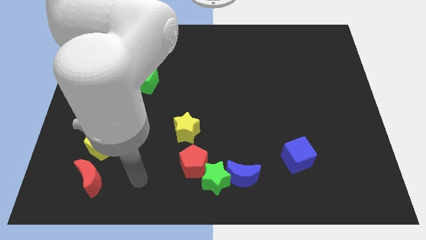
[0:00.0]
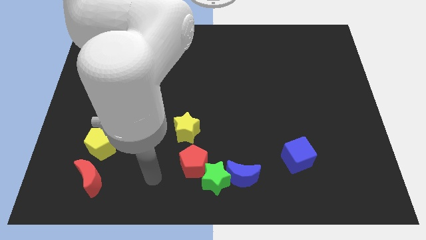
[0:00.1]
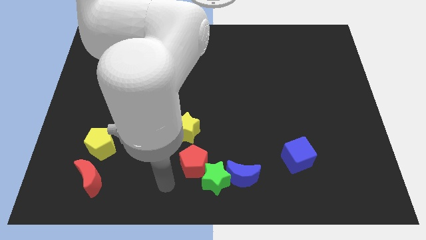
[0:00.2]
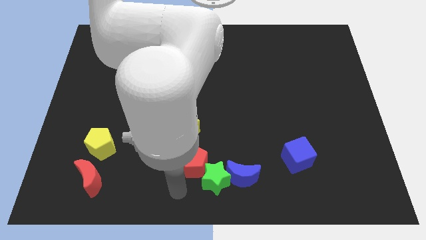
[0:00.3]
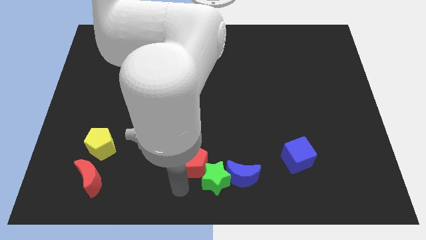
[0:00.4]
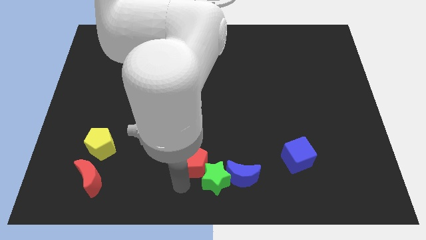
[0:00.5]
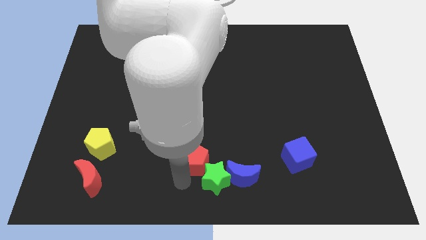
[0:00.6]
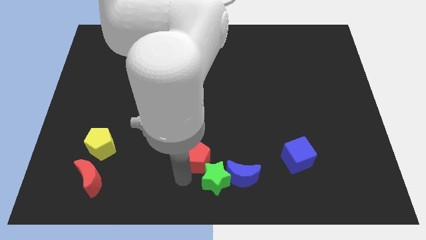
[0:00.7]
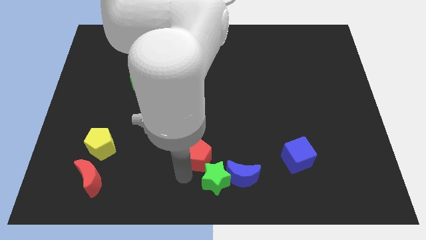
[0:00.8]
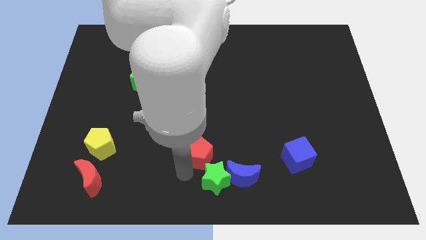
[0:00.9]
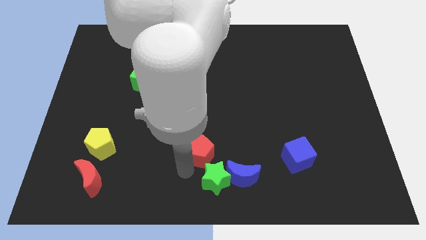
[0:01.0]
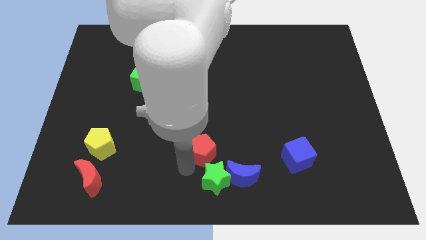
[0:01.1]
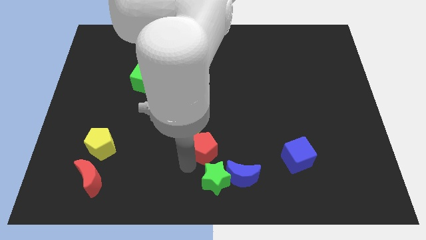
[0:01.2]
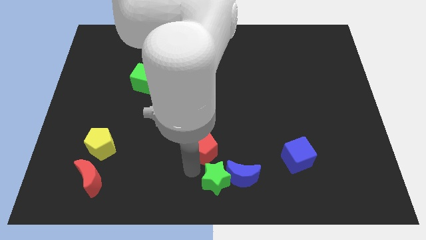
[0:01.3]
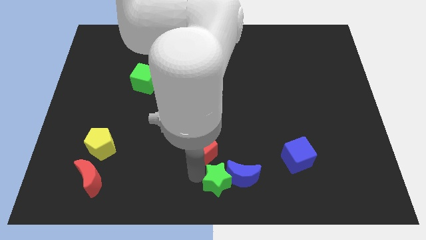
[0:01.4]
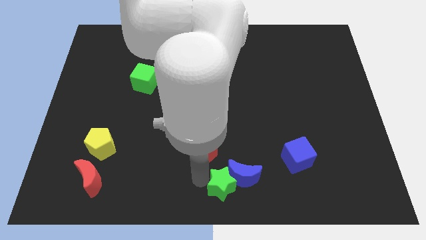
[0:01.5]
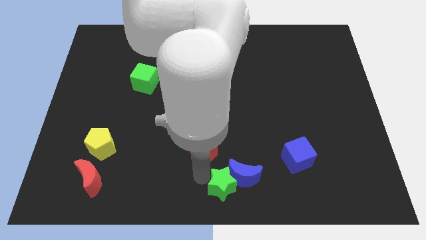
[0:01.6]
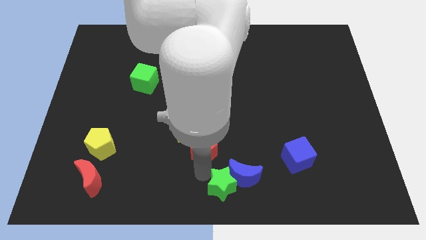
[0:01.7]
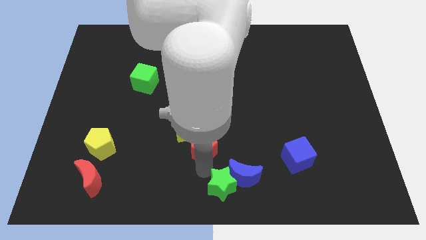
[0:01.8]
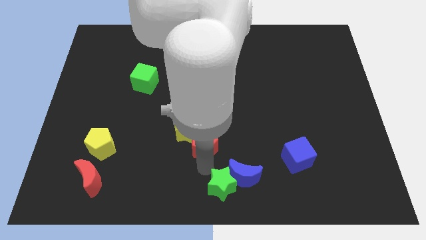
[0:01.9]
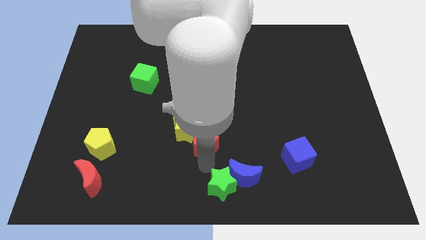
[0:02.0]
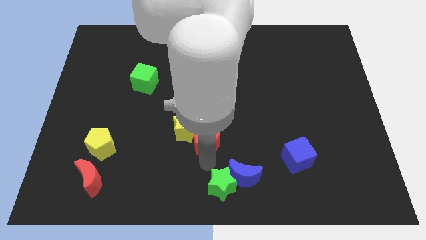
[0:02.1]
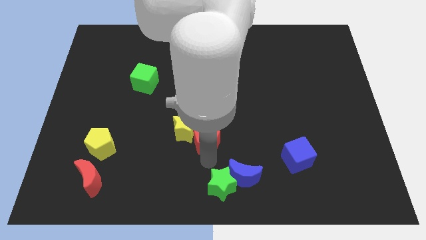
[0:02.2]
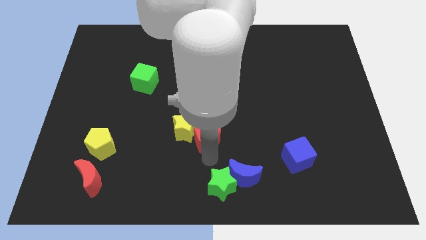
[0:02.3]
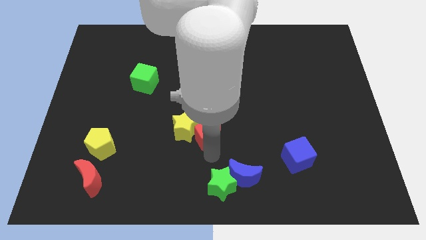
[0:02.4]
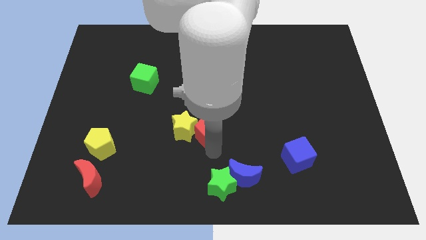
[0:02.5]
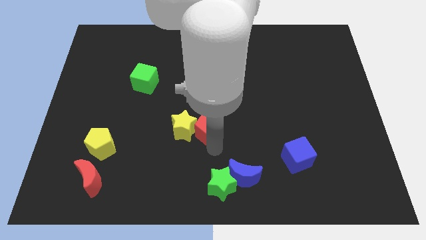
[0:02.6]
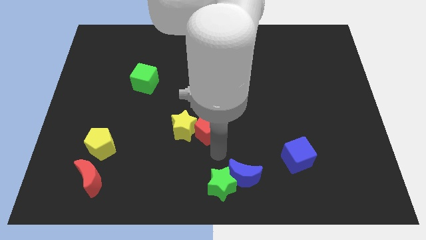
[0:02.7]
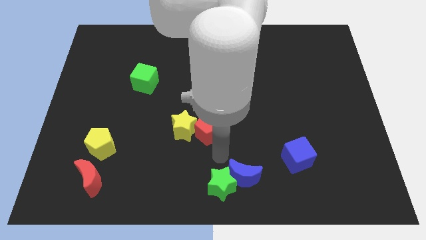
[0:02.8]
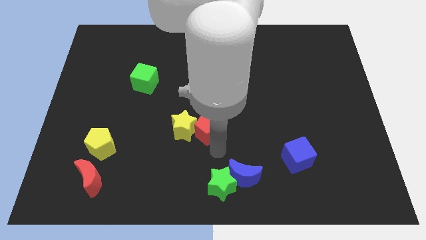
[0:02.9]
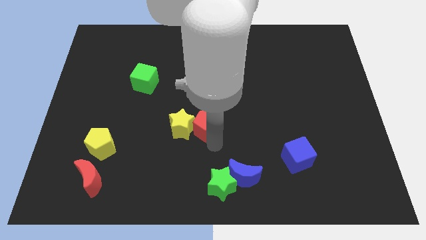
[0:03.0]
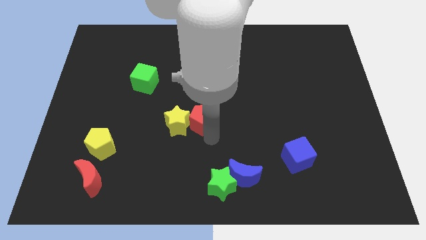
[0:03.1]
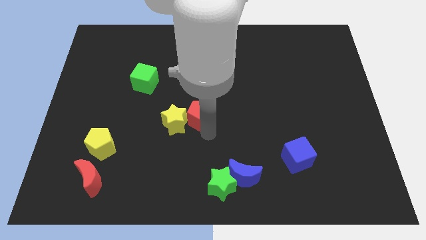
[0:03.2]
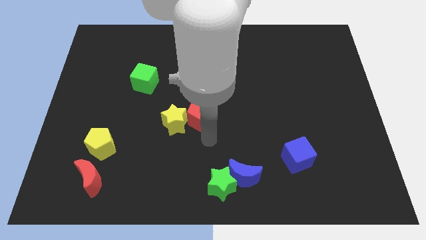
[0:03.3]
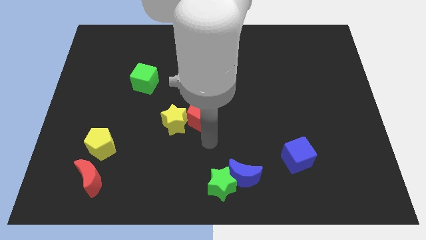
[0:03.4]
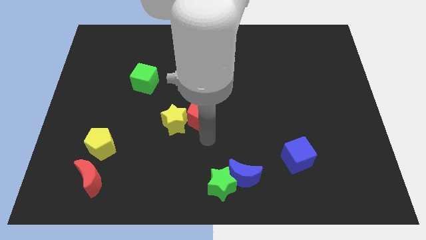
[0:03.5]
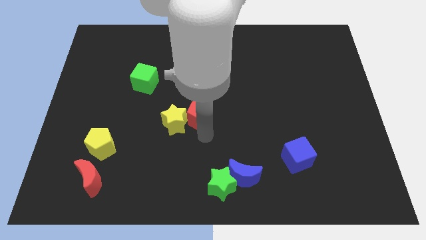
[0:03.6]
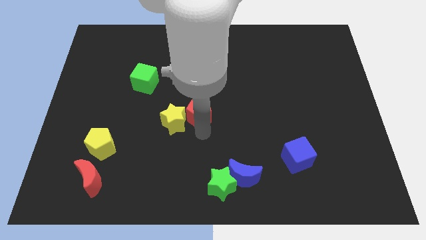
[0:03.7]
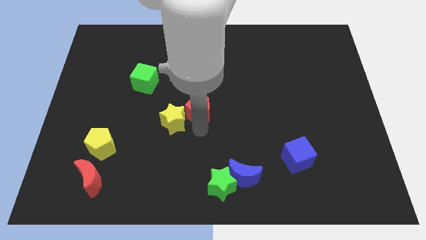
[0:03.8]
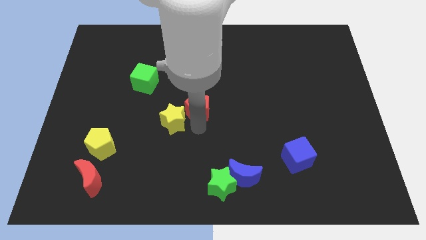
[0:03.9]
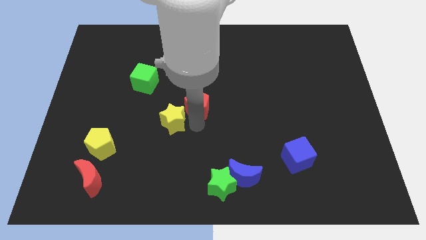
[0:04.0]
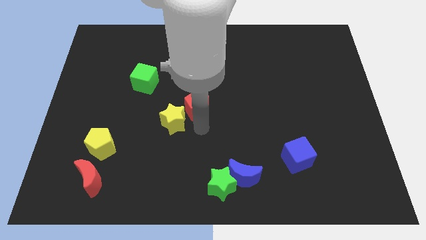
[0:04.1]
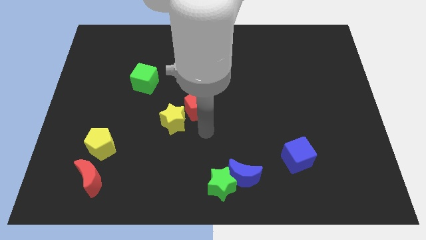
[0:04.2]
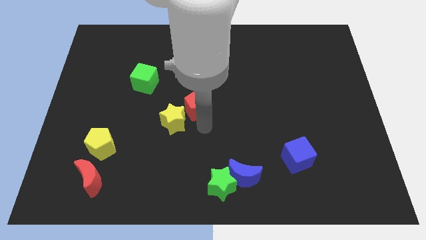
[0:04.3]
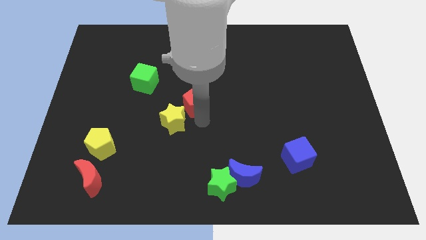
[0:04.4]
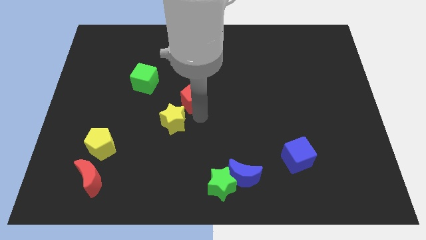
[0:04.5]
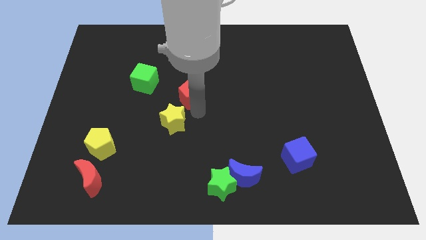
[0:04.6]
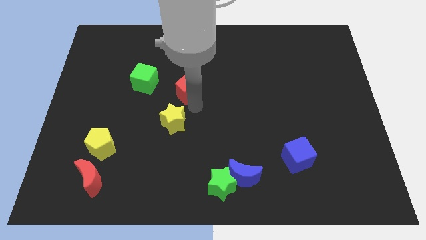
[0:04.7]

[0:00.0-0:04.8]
put the red pentagon to the right of the green cube

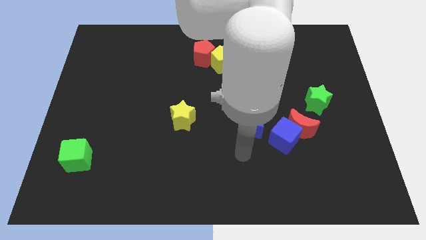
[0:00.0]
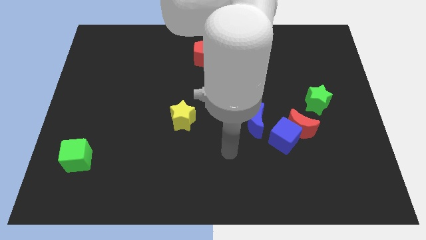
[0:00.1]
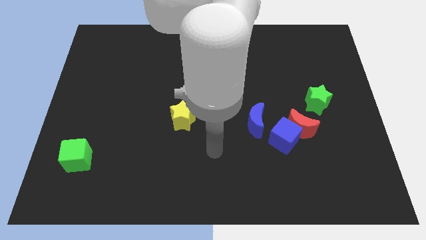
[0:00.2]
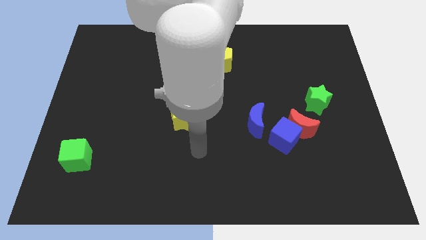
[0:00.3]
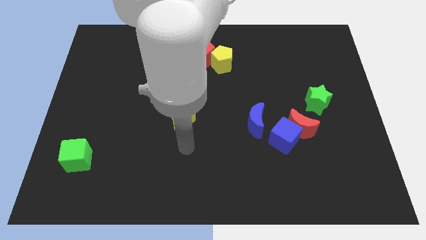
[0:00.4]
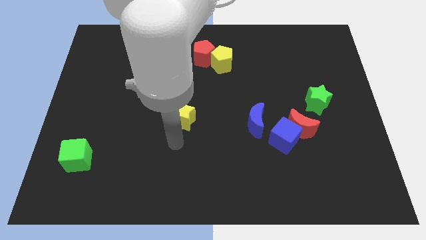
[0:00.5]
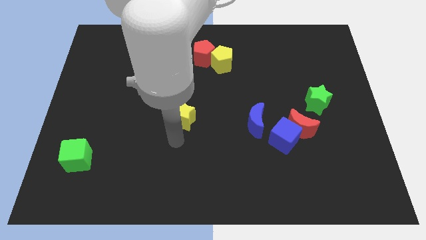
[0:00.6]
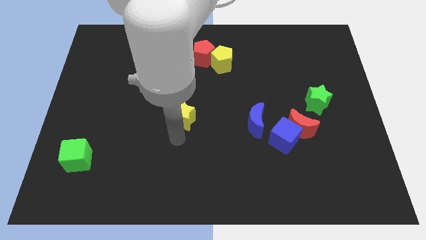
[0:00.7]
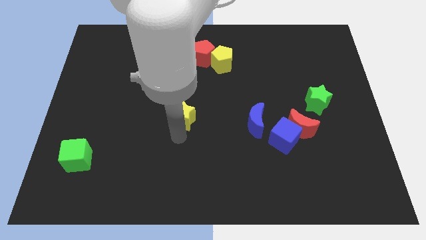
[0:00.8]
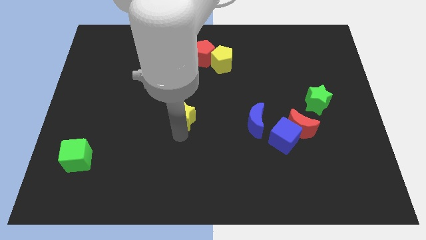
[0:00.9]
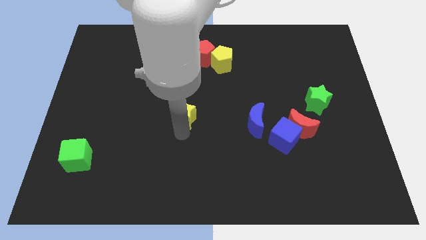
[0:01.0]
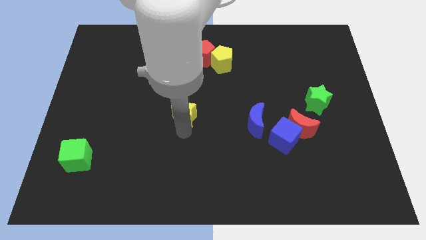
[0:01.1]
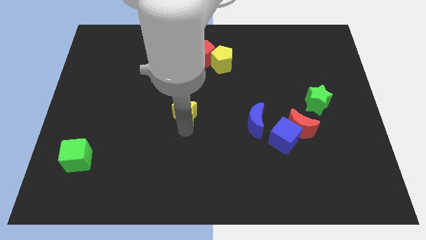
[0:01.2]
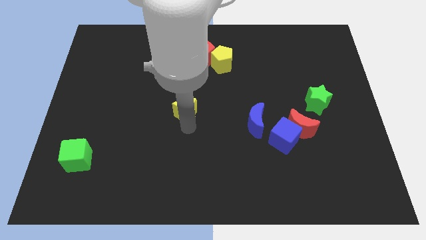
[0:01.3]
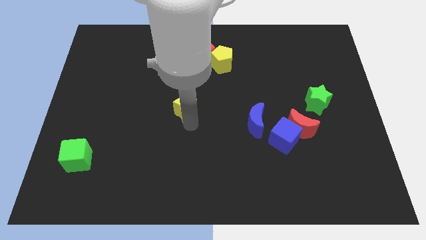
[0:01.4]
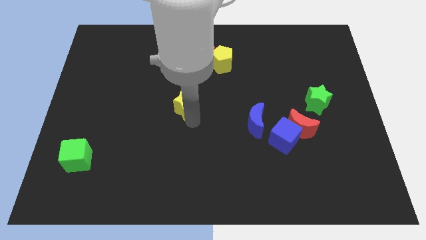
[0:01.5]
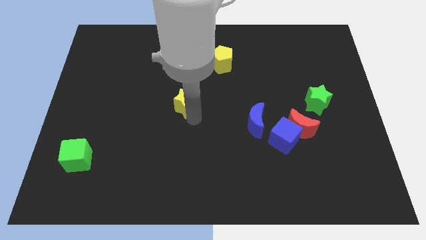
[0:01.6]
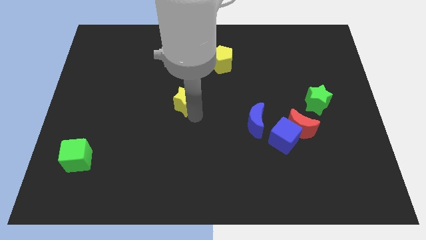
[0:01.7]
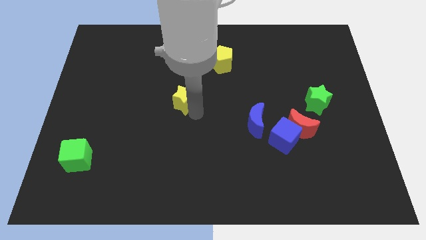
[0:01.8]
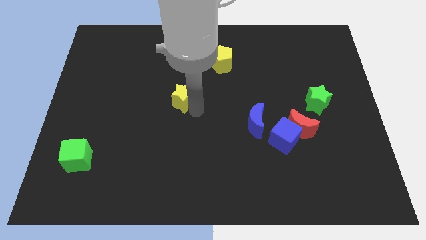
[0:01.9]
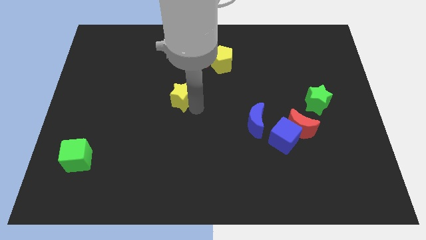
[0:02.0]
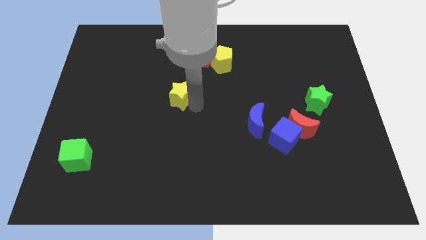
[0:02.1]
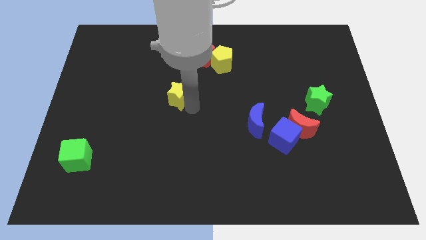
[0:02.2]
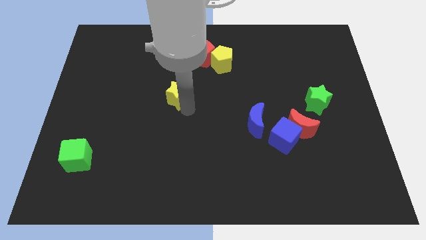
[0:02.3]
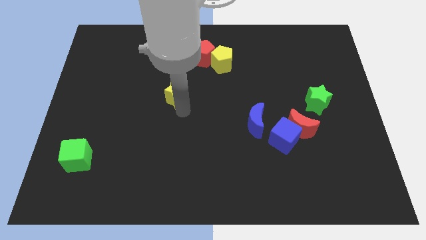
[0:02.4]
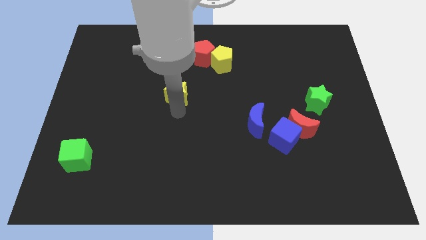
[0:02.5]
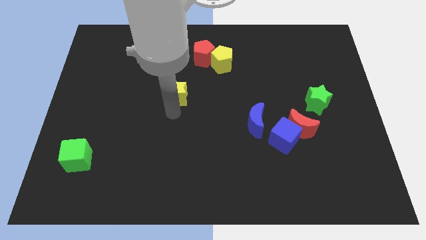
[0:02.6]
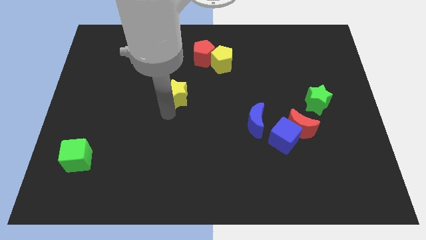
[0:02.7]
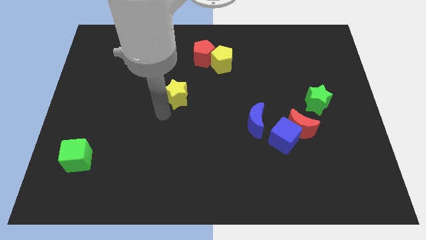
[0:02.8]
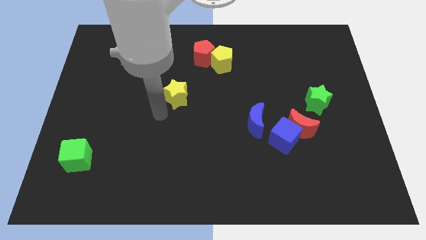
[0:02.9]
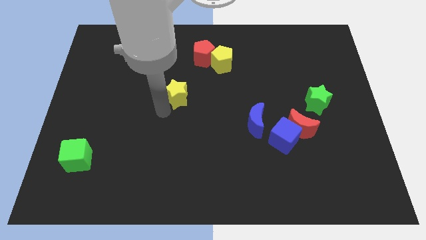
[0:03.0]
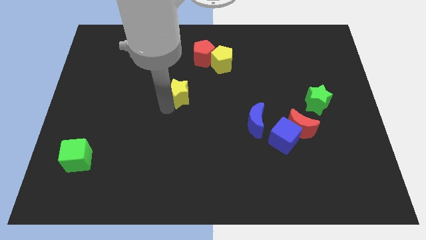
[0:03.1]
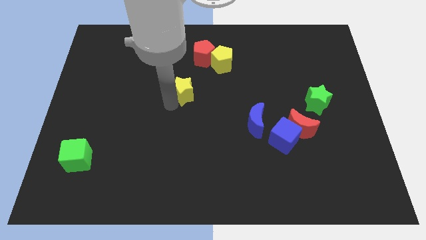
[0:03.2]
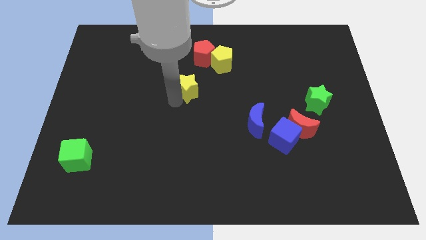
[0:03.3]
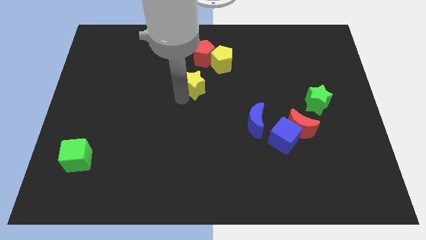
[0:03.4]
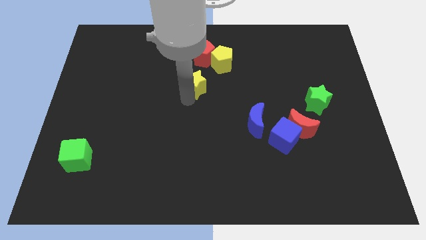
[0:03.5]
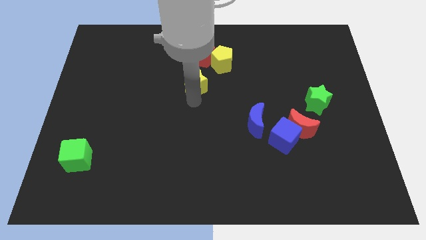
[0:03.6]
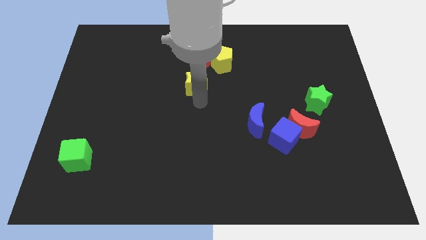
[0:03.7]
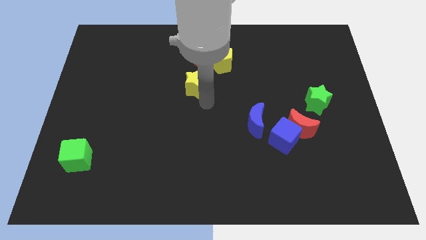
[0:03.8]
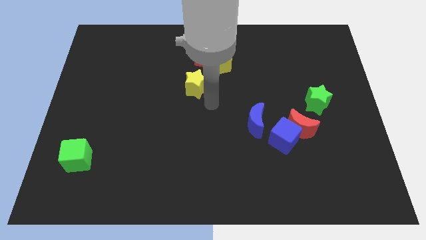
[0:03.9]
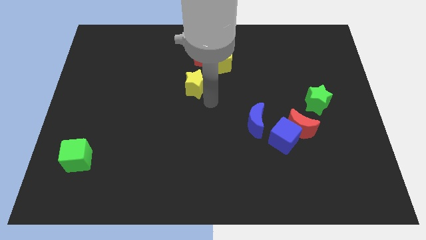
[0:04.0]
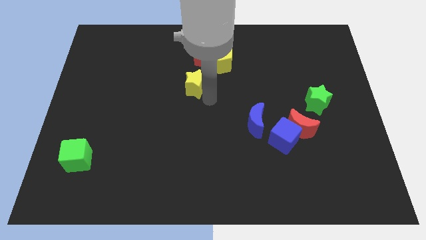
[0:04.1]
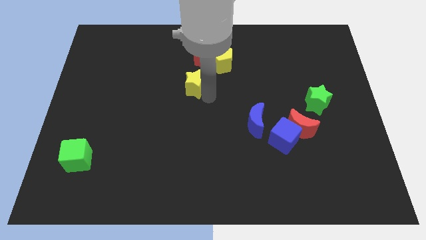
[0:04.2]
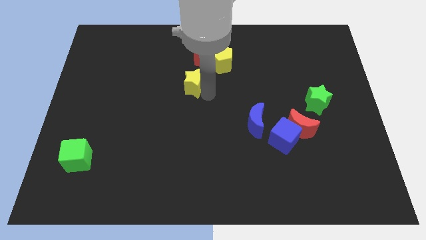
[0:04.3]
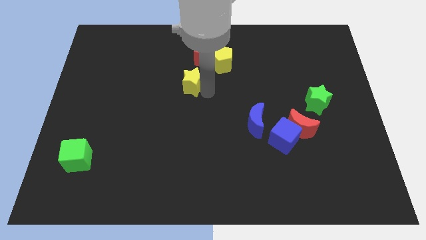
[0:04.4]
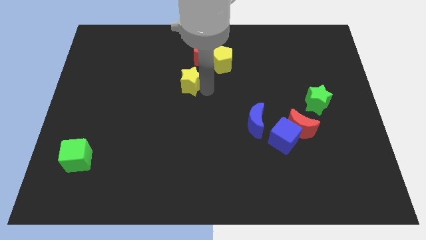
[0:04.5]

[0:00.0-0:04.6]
slide the yellow star diagonally down and to the left of the red pentagon
